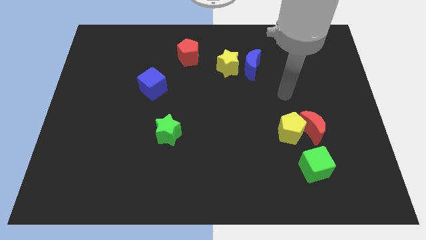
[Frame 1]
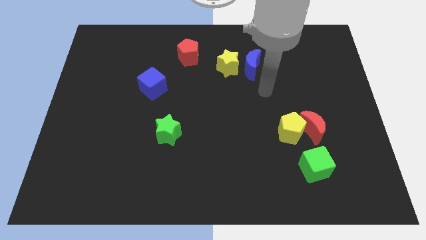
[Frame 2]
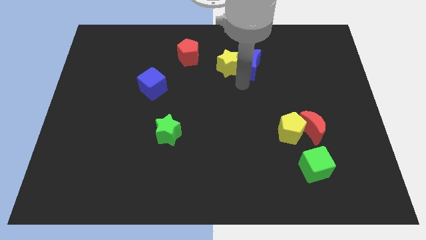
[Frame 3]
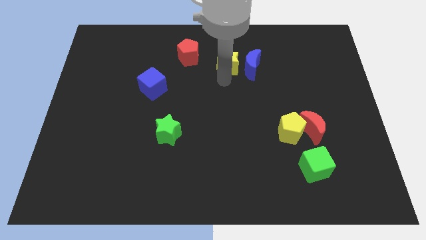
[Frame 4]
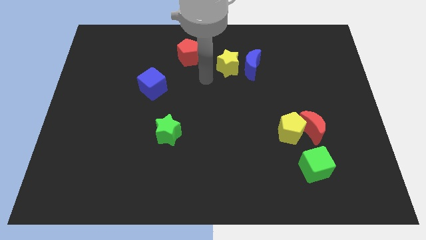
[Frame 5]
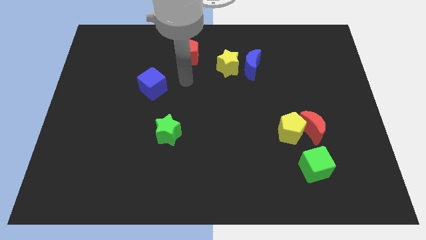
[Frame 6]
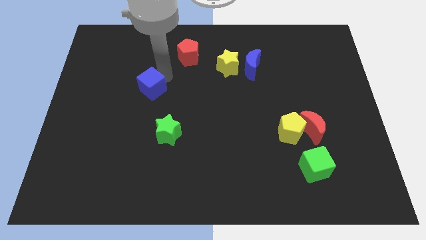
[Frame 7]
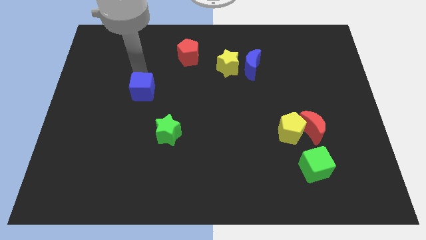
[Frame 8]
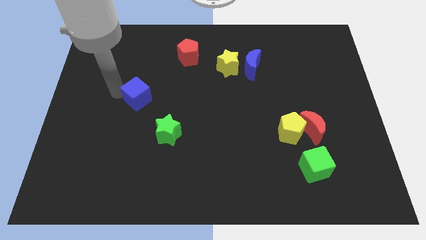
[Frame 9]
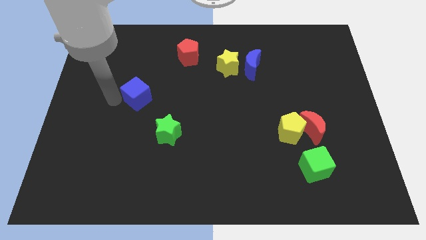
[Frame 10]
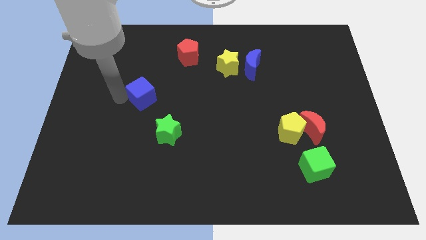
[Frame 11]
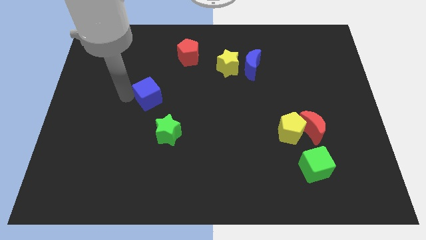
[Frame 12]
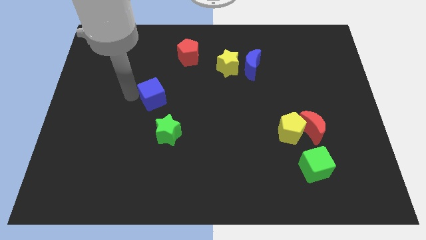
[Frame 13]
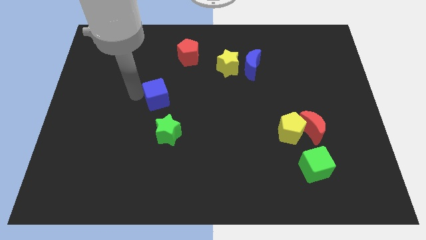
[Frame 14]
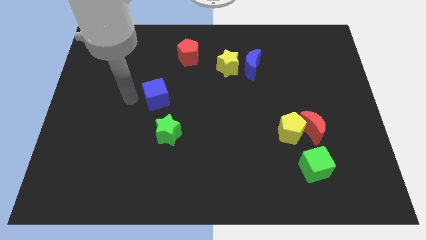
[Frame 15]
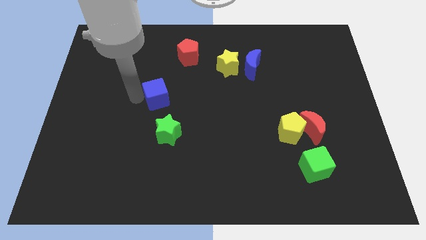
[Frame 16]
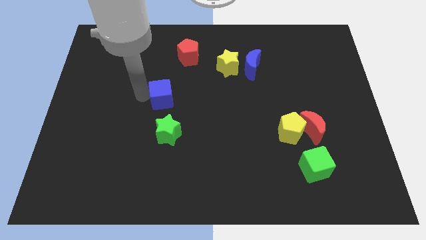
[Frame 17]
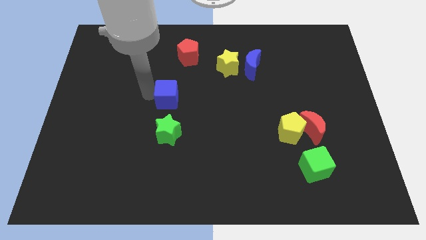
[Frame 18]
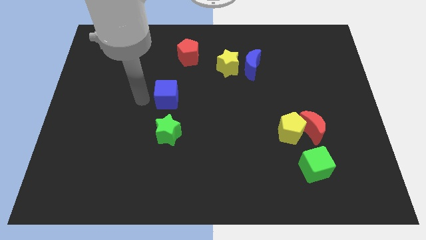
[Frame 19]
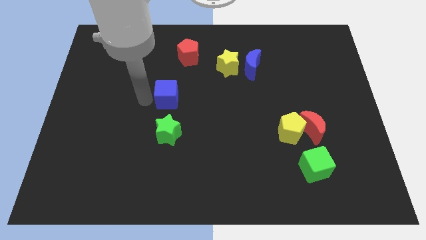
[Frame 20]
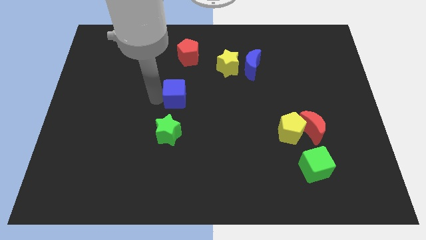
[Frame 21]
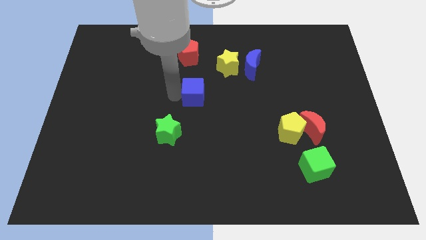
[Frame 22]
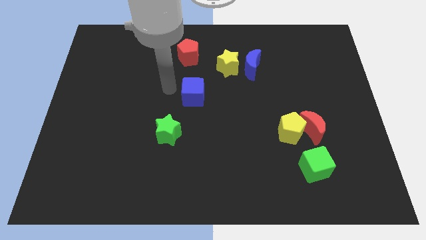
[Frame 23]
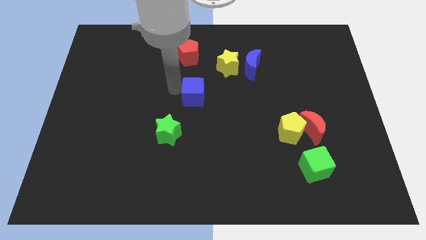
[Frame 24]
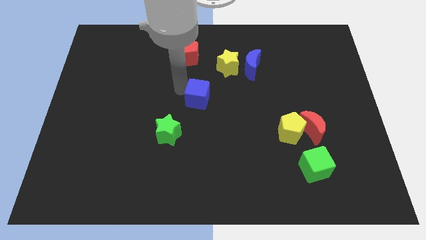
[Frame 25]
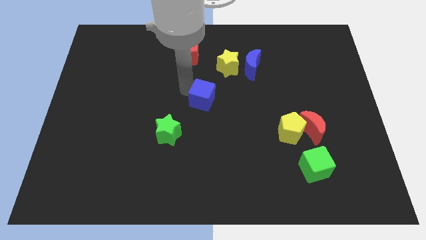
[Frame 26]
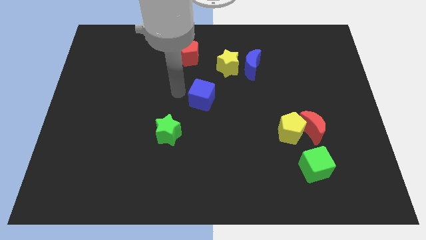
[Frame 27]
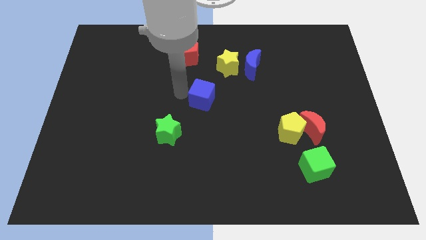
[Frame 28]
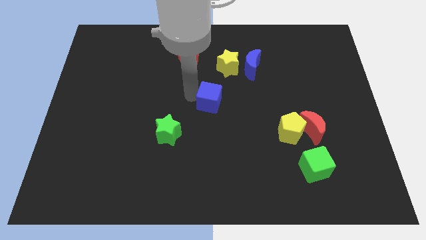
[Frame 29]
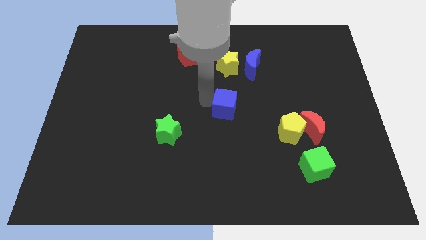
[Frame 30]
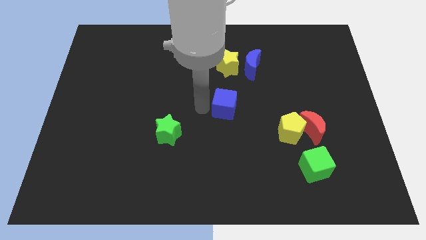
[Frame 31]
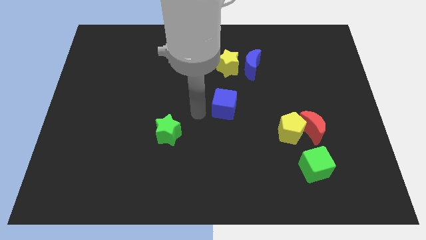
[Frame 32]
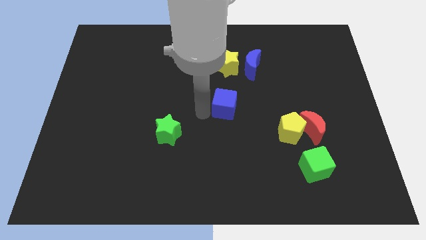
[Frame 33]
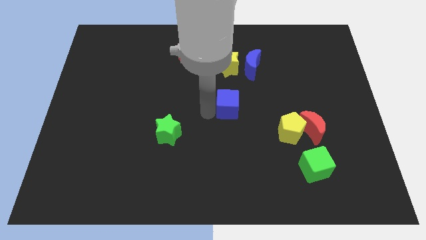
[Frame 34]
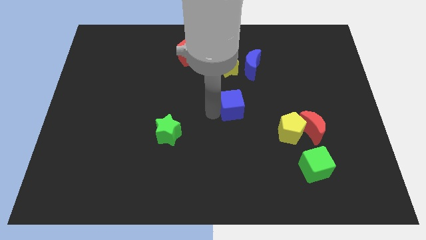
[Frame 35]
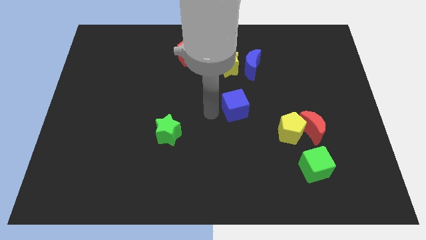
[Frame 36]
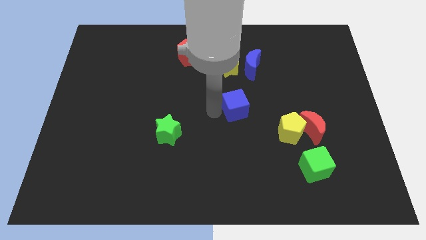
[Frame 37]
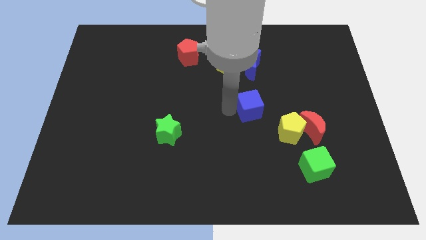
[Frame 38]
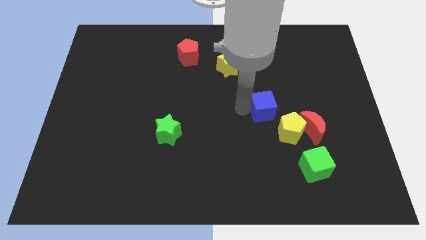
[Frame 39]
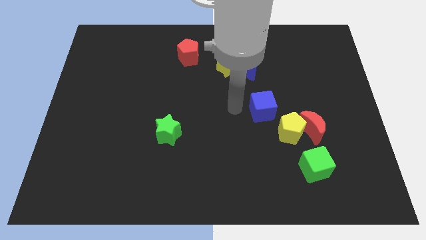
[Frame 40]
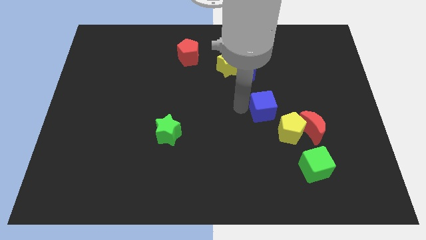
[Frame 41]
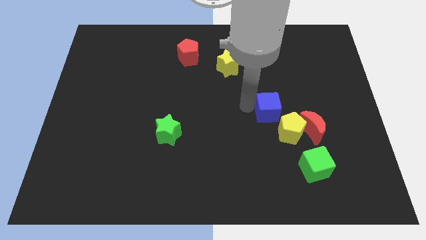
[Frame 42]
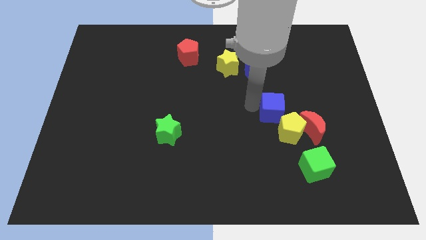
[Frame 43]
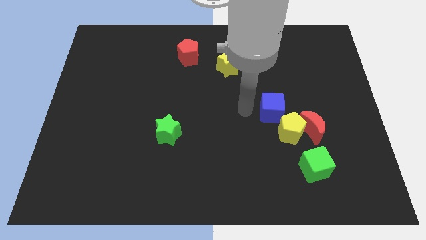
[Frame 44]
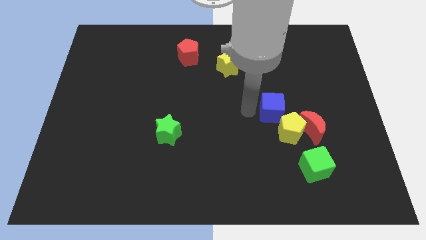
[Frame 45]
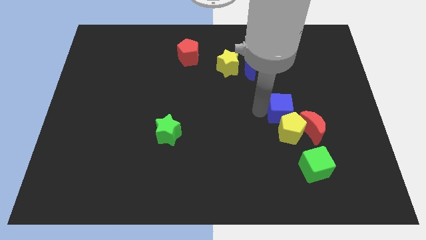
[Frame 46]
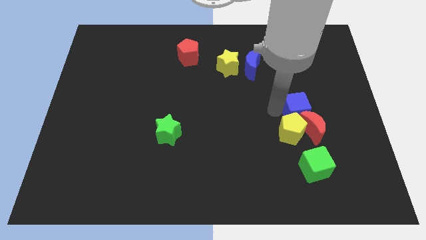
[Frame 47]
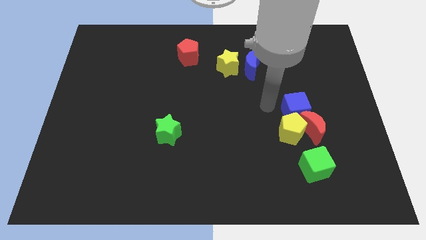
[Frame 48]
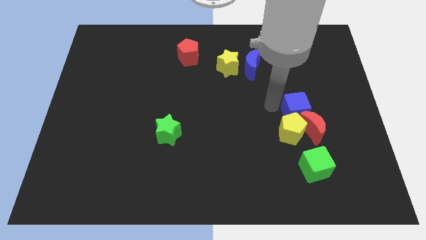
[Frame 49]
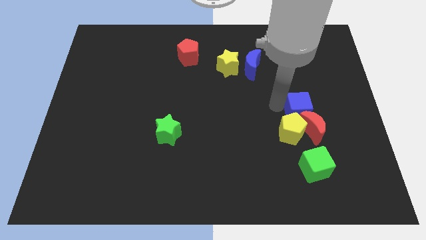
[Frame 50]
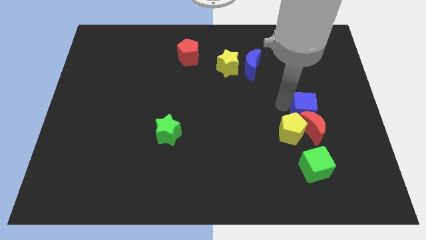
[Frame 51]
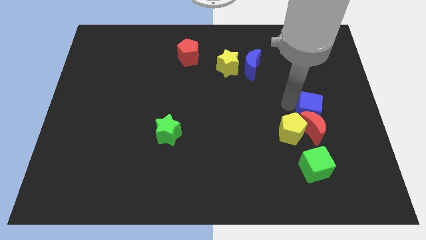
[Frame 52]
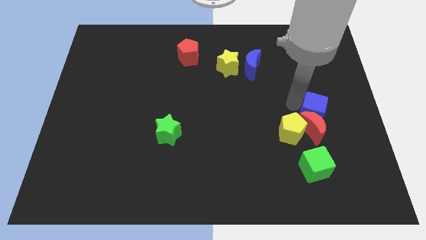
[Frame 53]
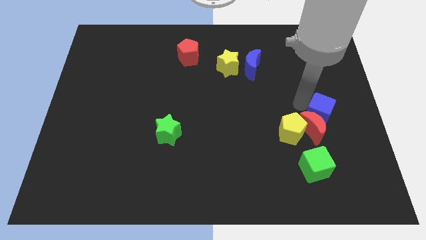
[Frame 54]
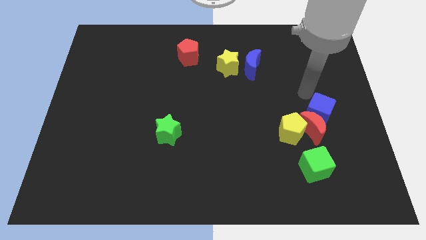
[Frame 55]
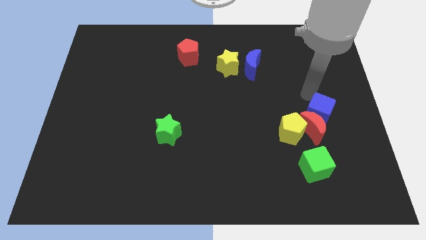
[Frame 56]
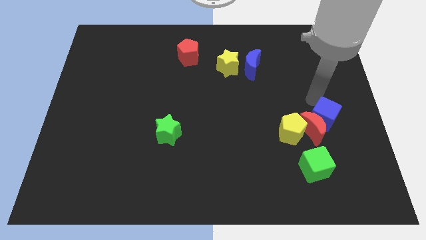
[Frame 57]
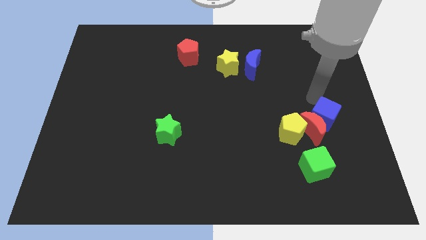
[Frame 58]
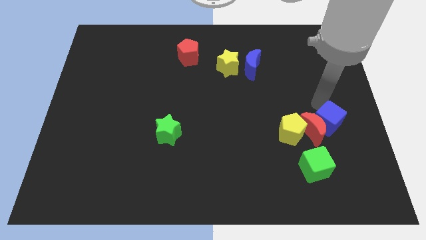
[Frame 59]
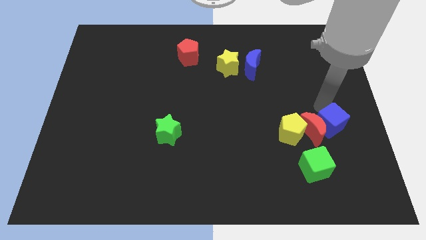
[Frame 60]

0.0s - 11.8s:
move the blue cube to the bottom right of the red moon

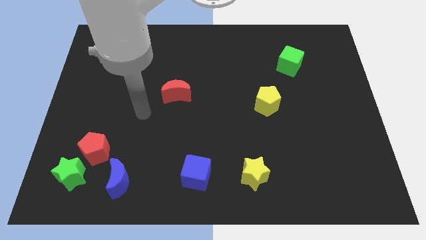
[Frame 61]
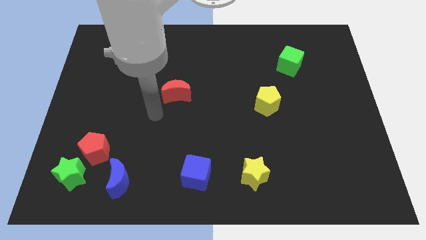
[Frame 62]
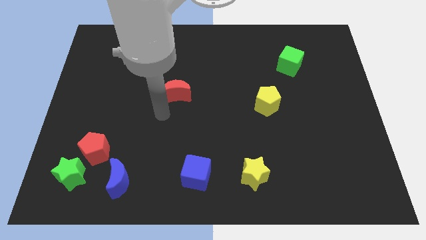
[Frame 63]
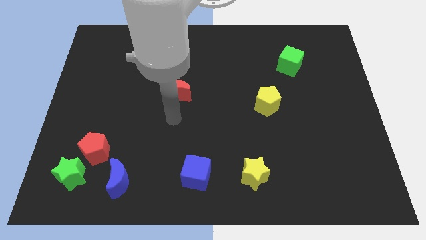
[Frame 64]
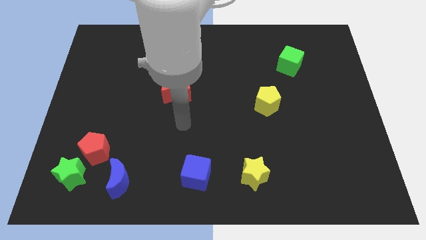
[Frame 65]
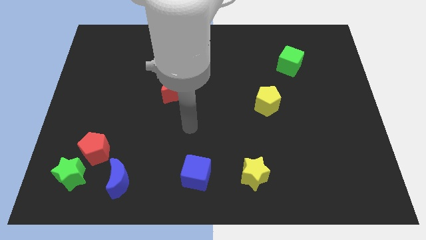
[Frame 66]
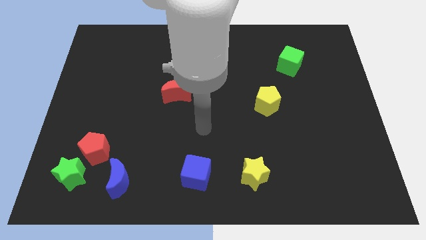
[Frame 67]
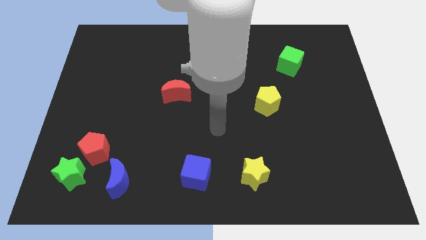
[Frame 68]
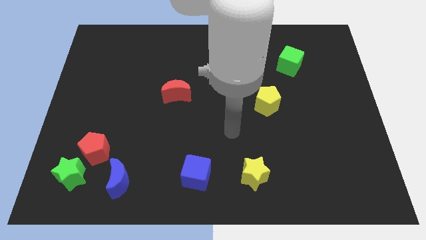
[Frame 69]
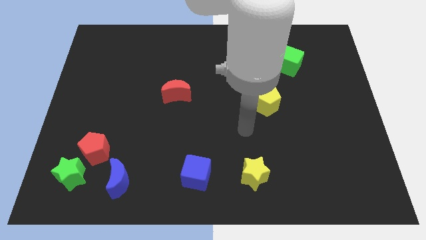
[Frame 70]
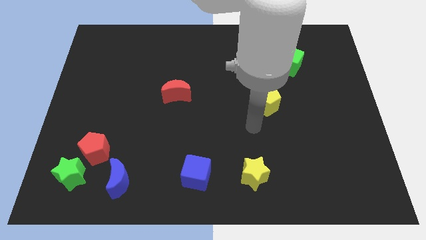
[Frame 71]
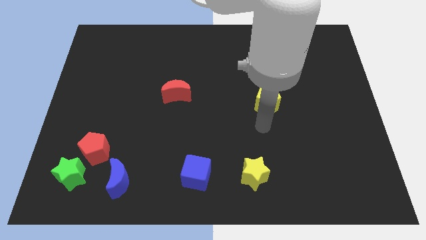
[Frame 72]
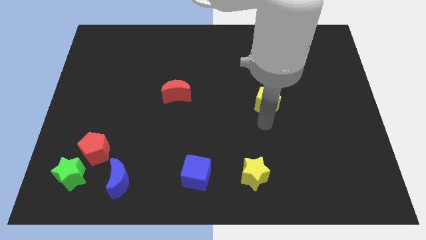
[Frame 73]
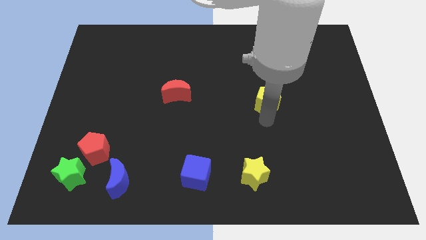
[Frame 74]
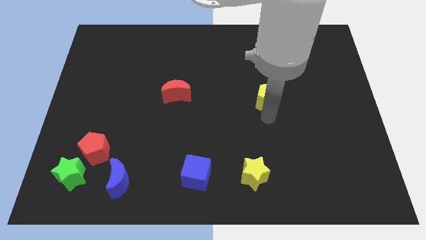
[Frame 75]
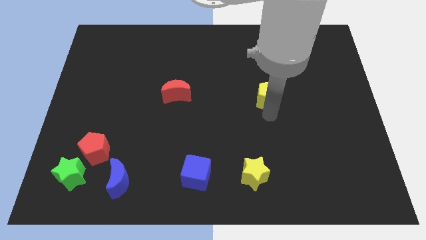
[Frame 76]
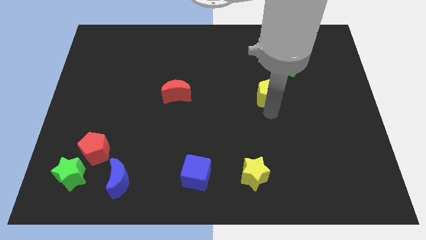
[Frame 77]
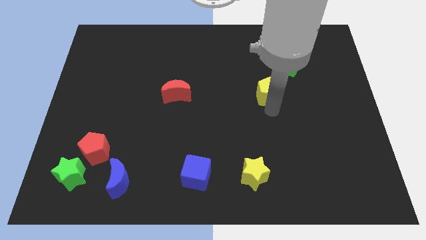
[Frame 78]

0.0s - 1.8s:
move the yellow pentagon diagonally down and to the left of the green cube
